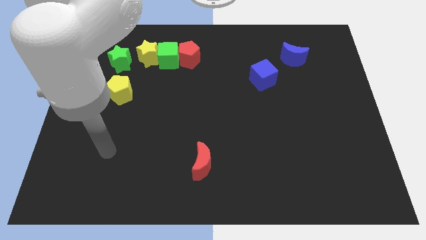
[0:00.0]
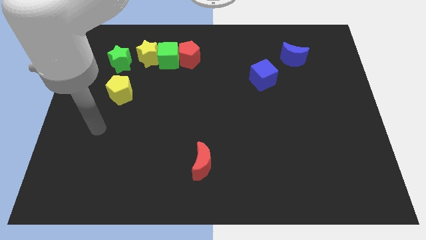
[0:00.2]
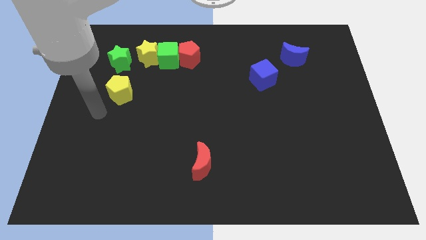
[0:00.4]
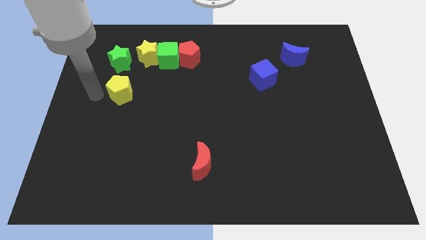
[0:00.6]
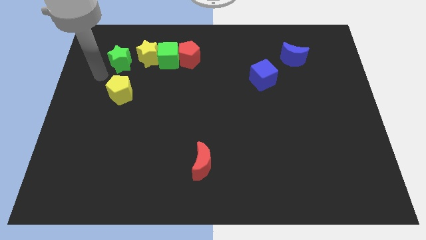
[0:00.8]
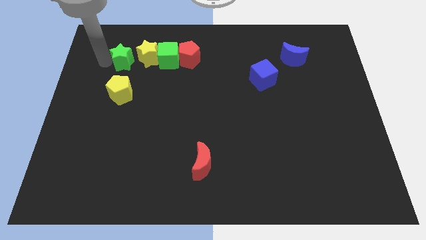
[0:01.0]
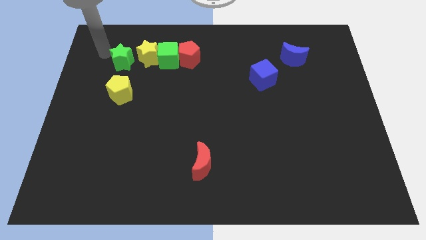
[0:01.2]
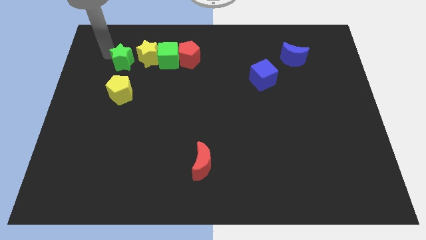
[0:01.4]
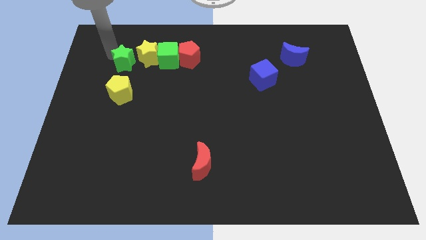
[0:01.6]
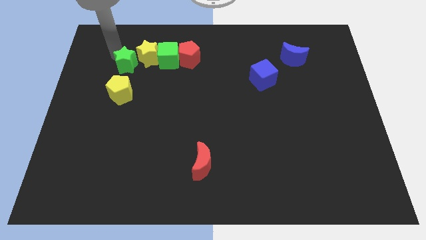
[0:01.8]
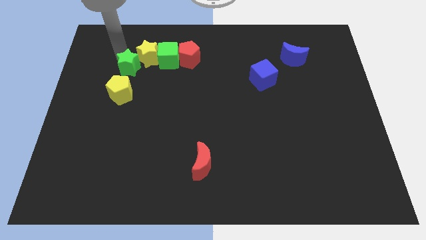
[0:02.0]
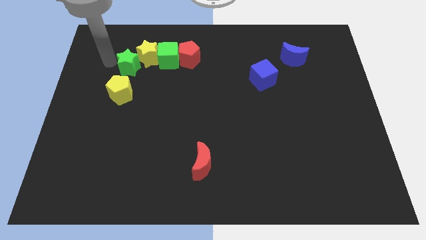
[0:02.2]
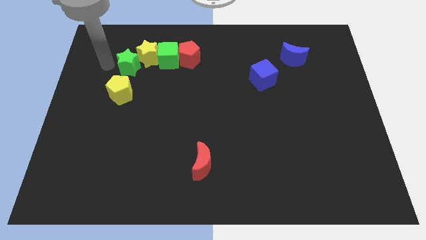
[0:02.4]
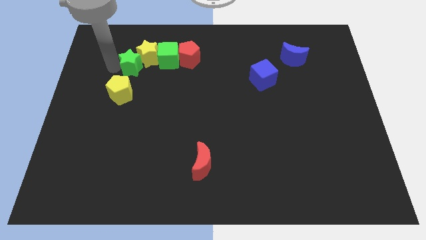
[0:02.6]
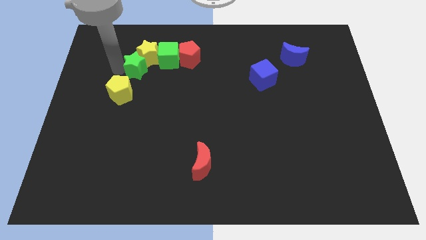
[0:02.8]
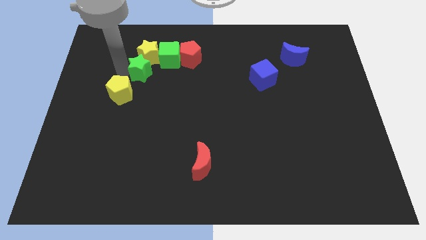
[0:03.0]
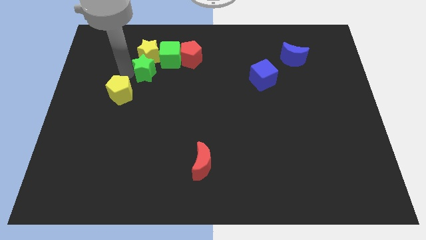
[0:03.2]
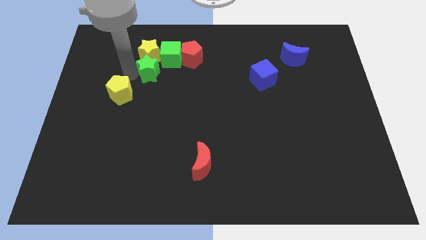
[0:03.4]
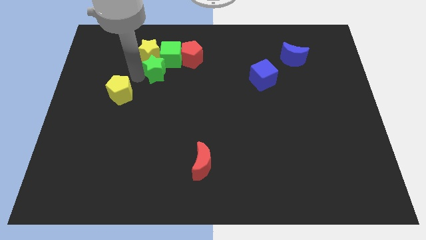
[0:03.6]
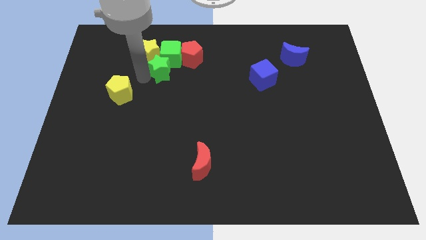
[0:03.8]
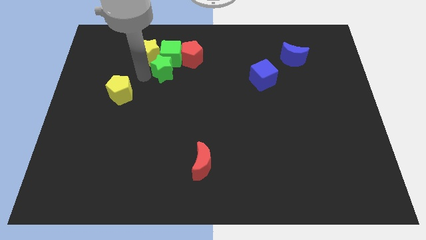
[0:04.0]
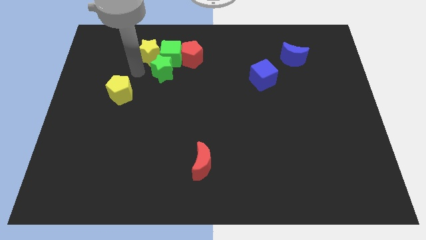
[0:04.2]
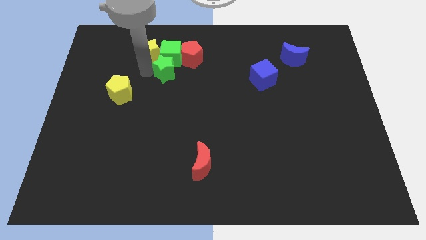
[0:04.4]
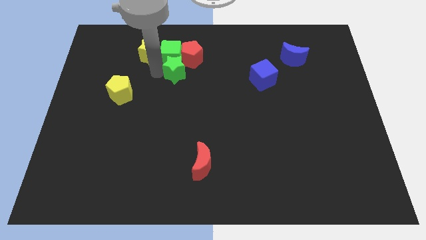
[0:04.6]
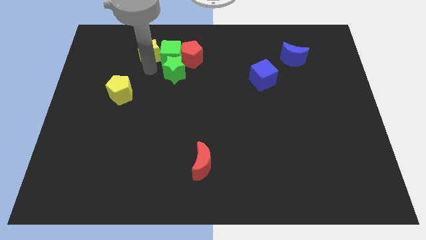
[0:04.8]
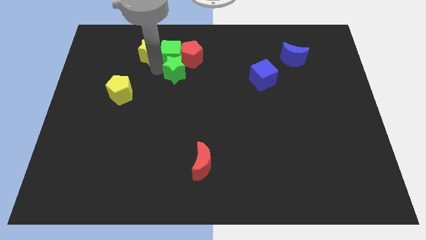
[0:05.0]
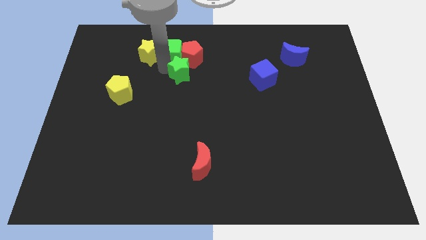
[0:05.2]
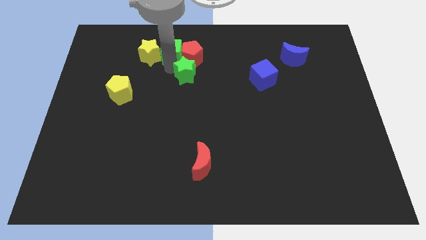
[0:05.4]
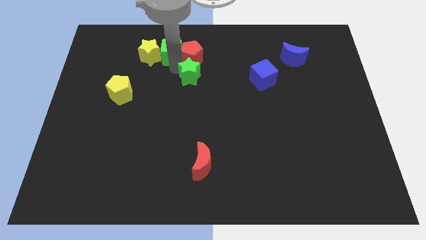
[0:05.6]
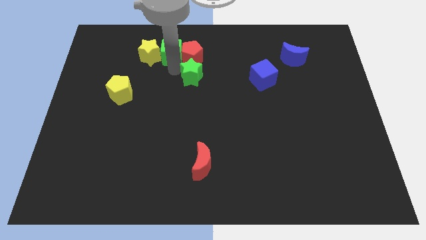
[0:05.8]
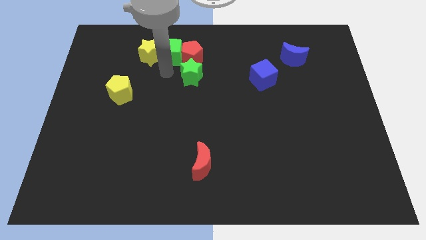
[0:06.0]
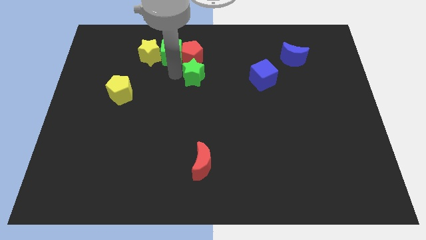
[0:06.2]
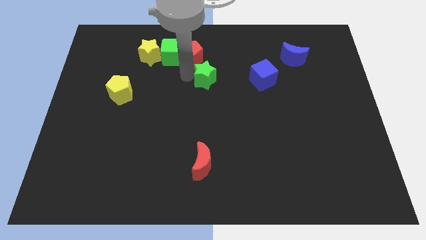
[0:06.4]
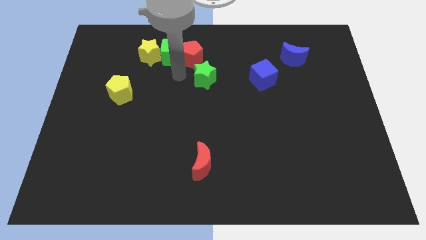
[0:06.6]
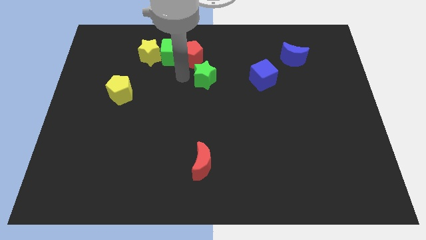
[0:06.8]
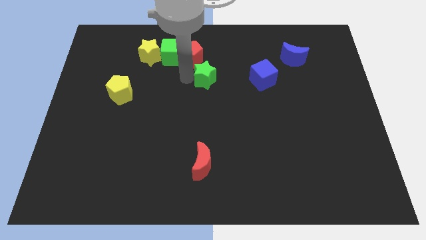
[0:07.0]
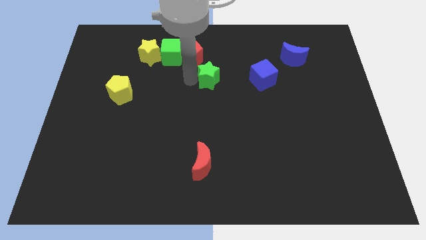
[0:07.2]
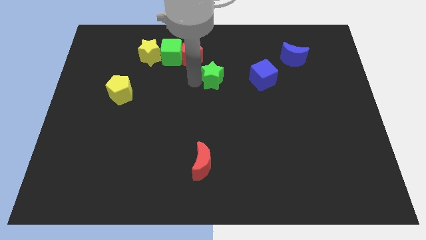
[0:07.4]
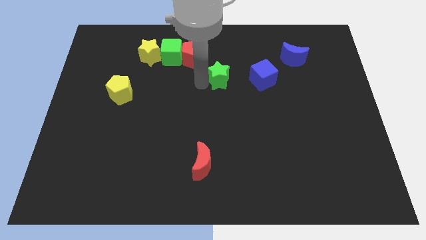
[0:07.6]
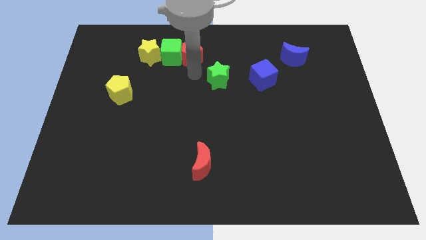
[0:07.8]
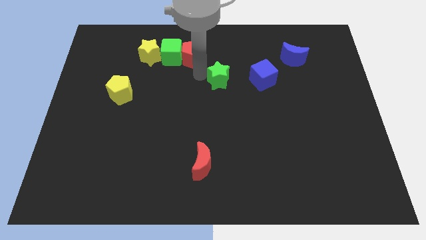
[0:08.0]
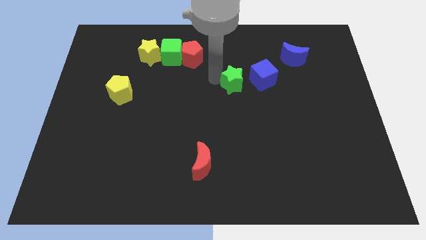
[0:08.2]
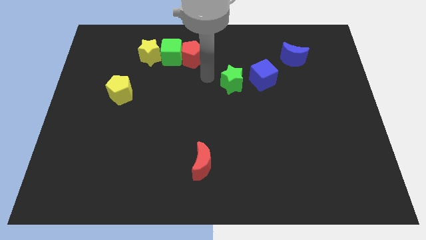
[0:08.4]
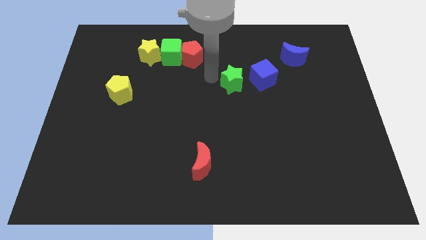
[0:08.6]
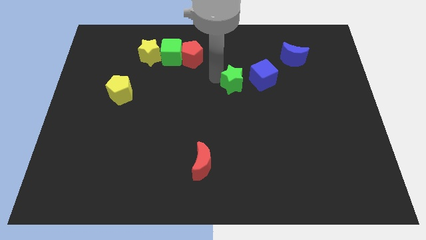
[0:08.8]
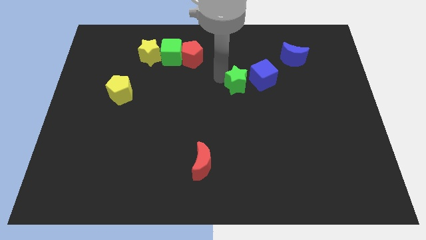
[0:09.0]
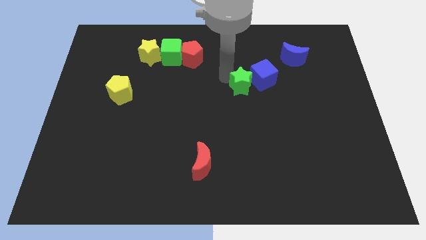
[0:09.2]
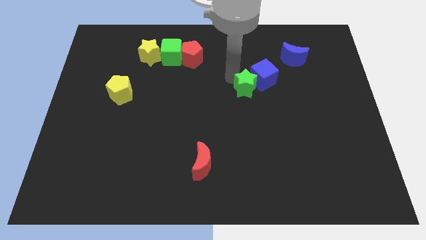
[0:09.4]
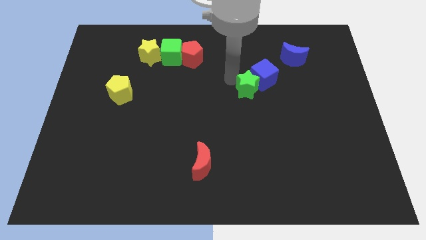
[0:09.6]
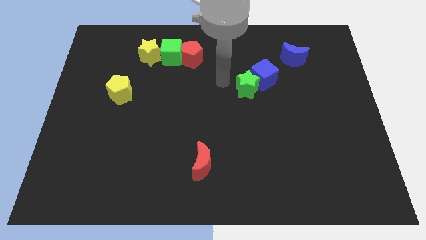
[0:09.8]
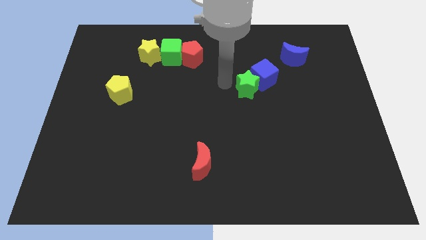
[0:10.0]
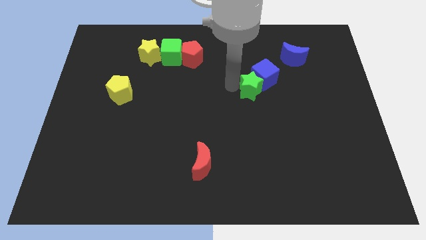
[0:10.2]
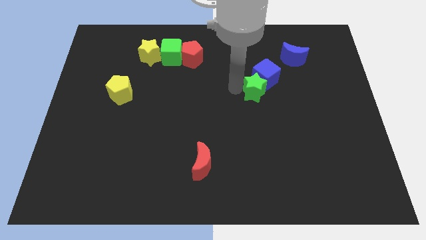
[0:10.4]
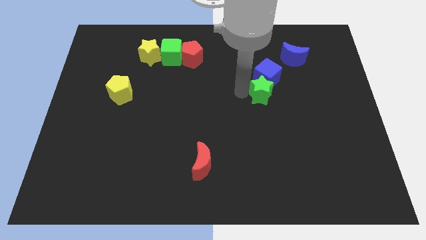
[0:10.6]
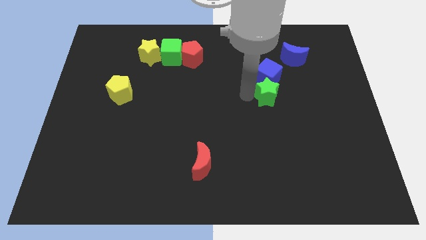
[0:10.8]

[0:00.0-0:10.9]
slide the green star diagonally down and to the right of the blue cube

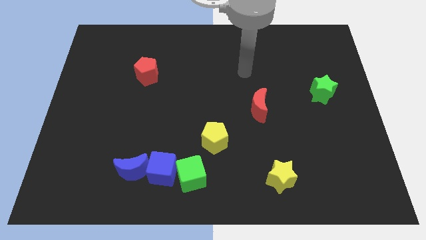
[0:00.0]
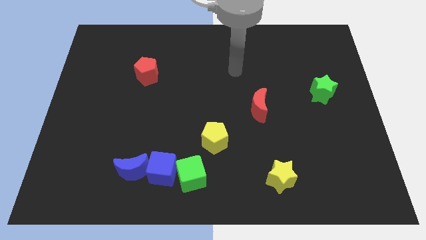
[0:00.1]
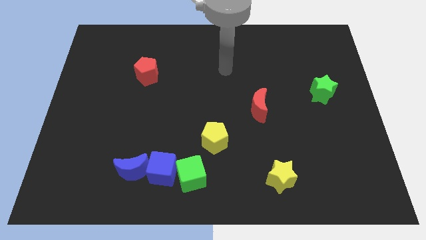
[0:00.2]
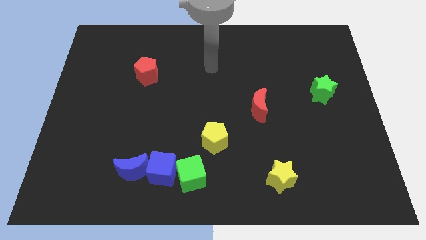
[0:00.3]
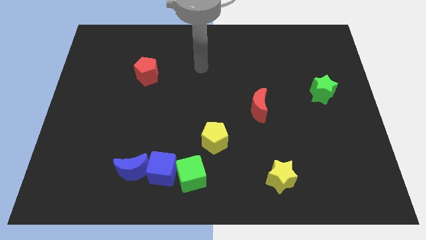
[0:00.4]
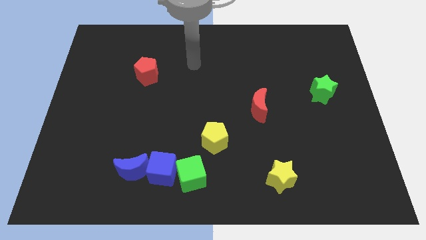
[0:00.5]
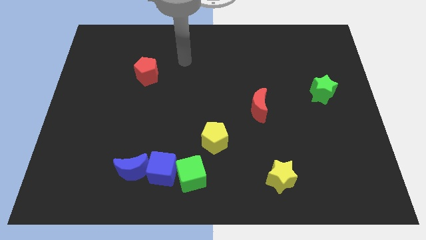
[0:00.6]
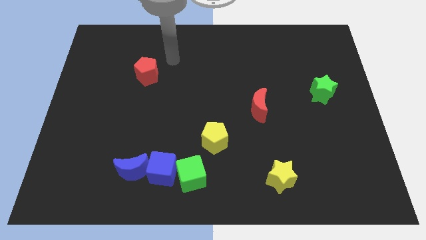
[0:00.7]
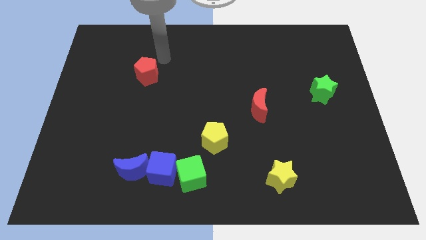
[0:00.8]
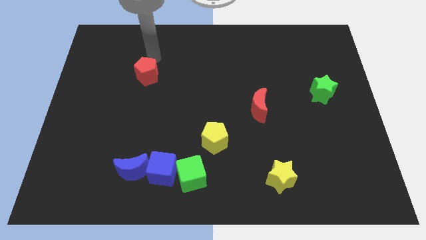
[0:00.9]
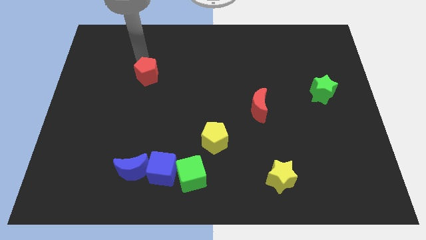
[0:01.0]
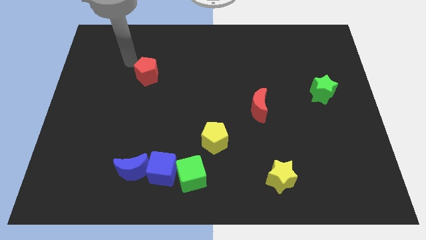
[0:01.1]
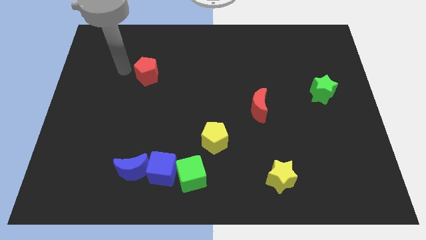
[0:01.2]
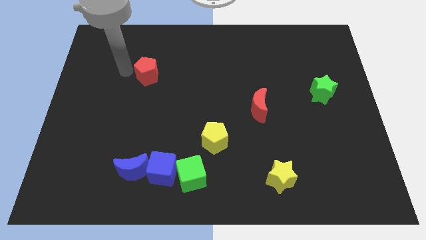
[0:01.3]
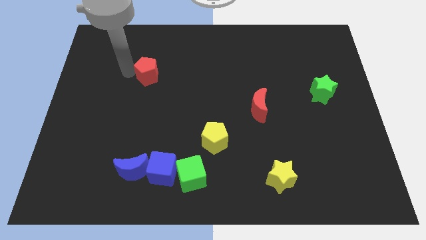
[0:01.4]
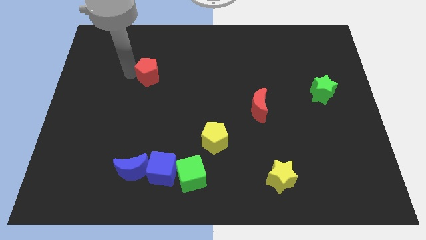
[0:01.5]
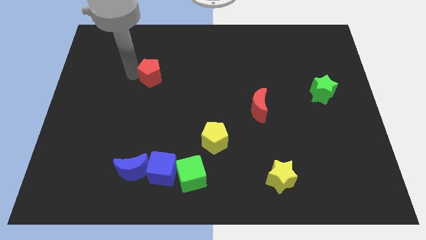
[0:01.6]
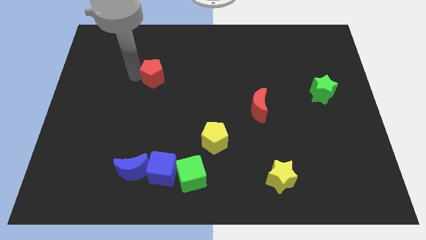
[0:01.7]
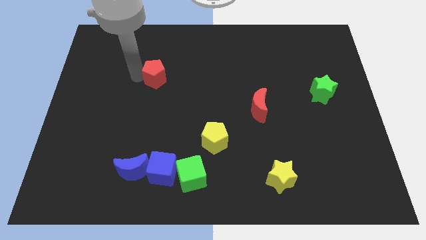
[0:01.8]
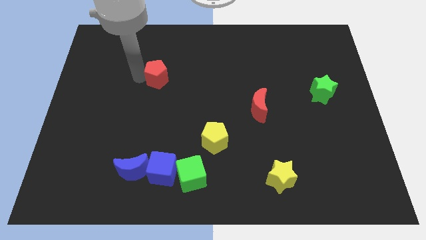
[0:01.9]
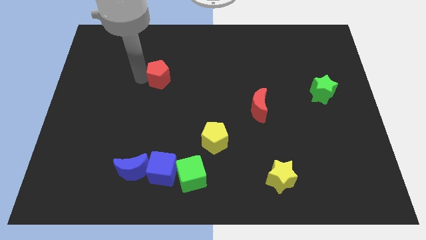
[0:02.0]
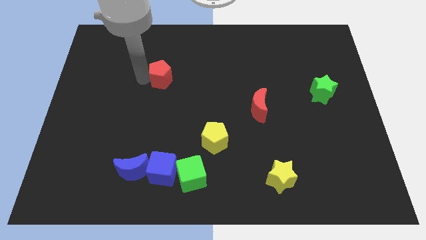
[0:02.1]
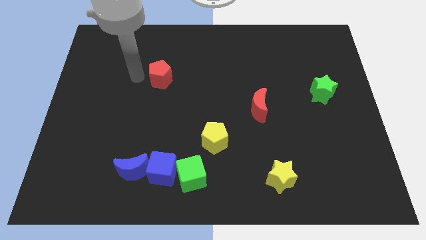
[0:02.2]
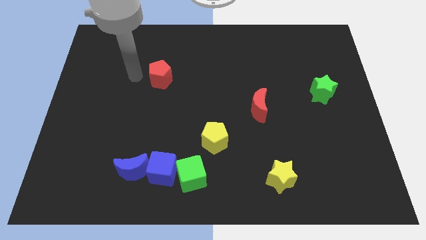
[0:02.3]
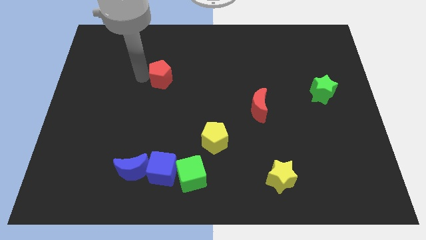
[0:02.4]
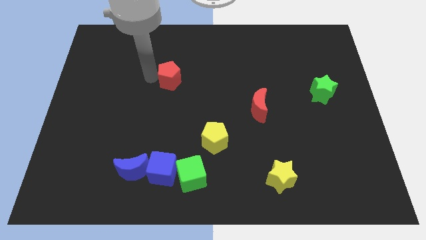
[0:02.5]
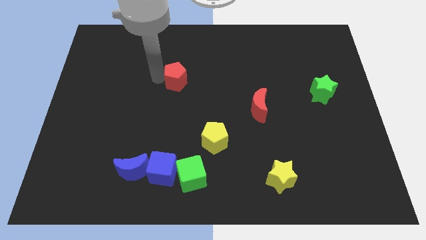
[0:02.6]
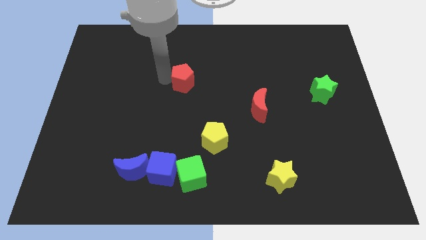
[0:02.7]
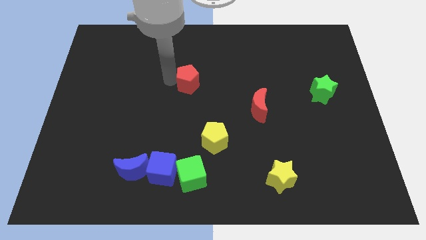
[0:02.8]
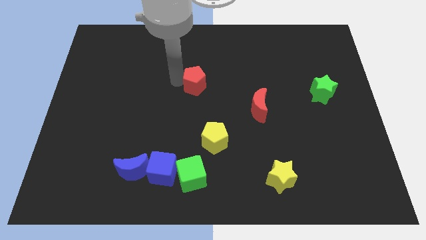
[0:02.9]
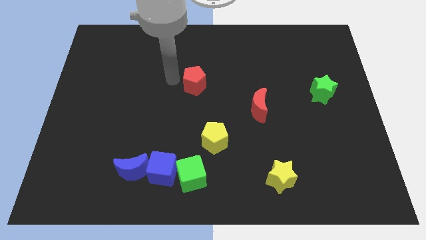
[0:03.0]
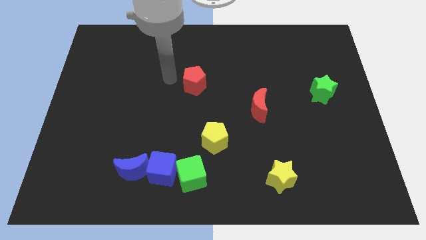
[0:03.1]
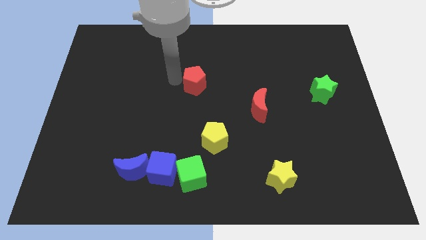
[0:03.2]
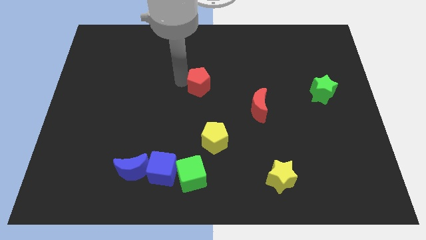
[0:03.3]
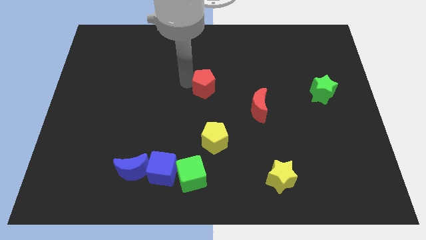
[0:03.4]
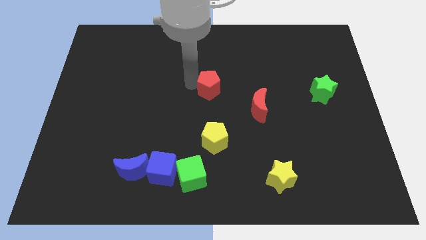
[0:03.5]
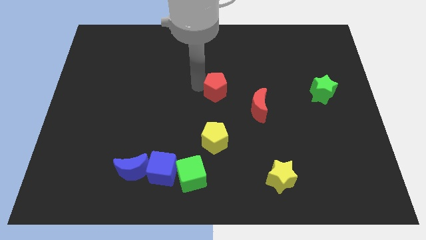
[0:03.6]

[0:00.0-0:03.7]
push the red pentagon to the top left side of the red moon
